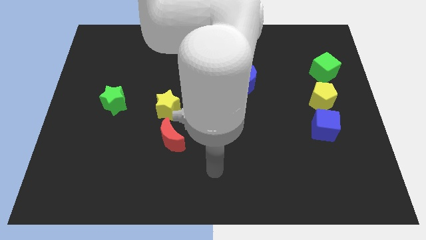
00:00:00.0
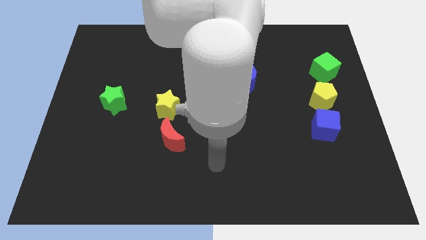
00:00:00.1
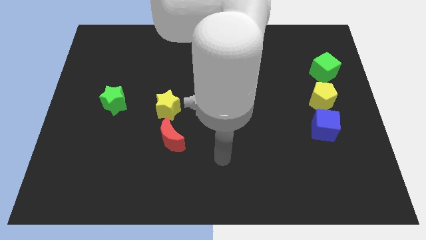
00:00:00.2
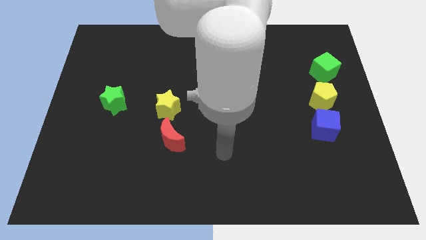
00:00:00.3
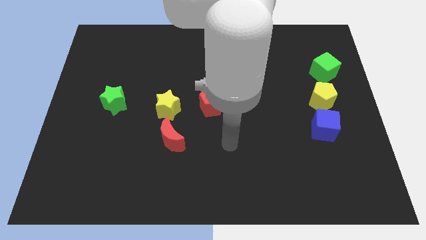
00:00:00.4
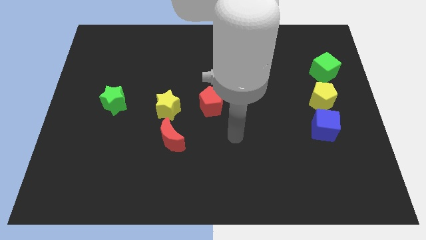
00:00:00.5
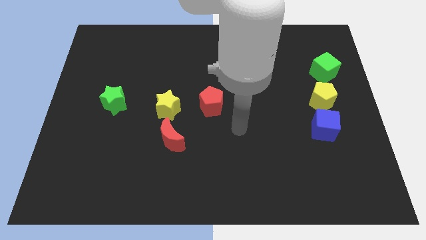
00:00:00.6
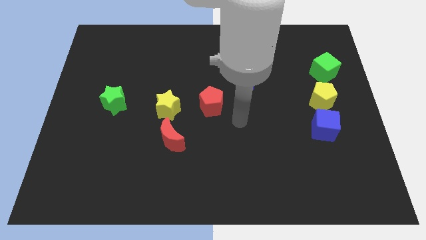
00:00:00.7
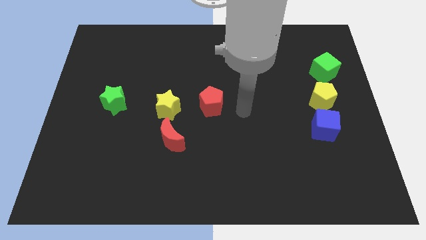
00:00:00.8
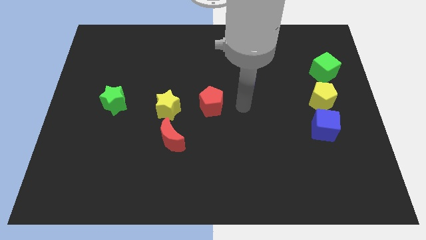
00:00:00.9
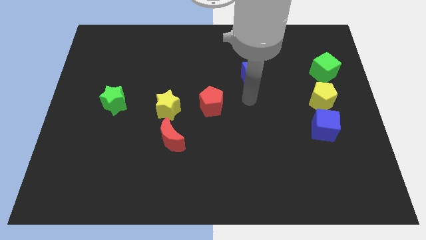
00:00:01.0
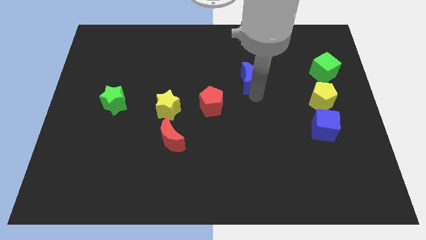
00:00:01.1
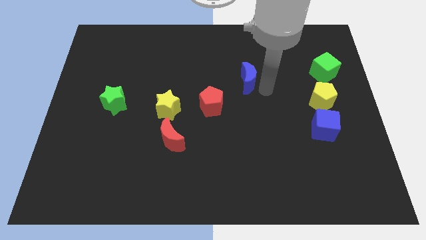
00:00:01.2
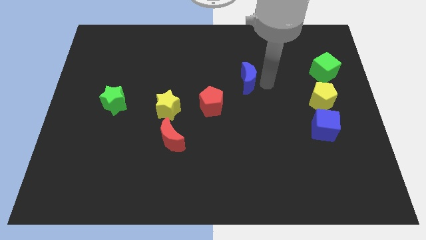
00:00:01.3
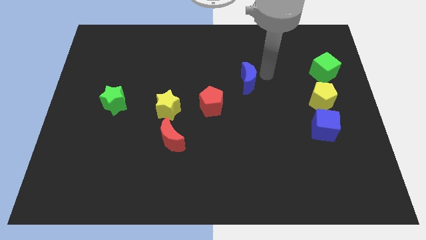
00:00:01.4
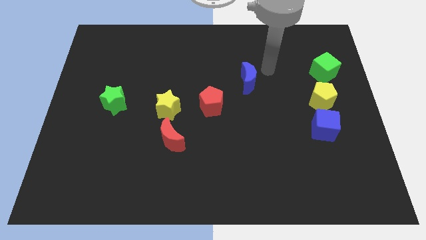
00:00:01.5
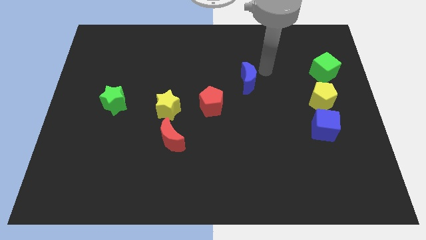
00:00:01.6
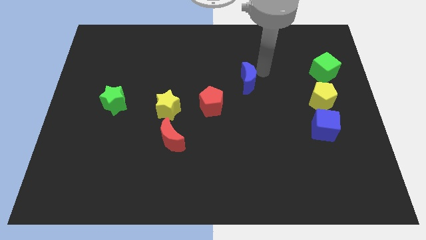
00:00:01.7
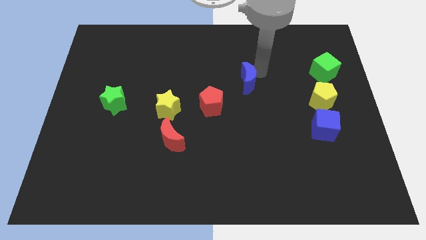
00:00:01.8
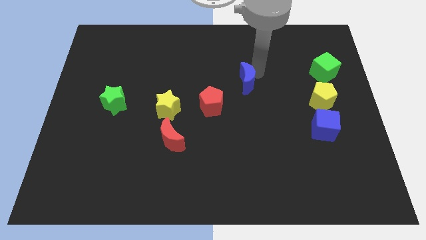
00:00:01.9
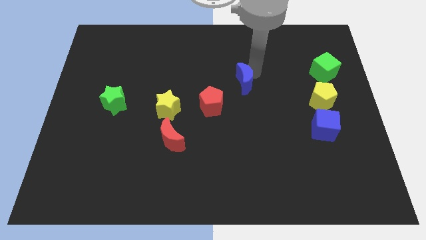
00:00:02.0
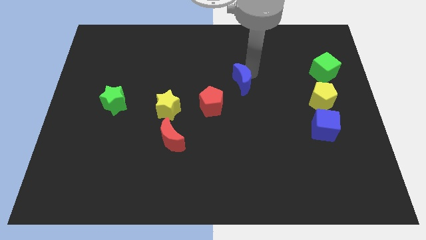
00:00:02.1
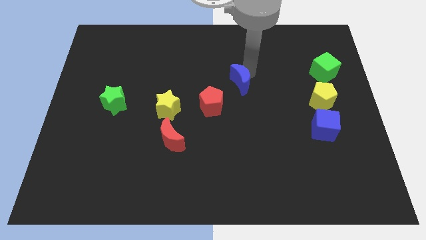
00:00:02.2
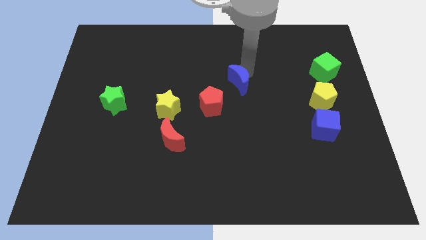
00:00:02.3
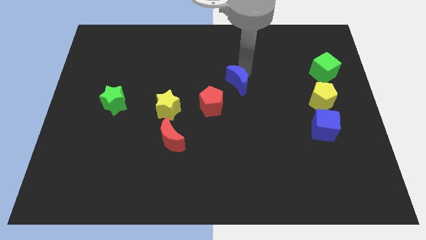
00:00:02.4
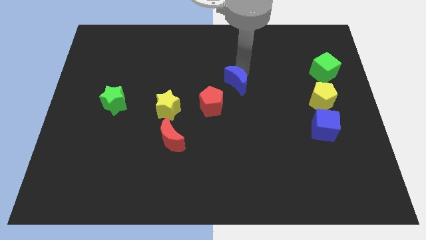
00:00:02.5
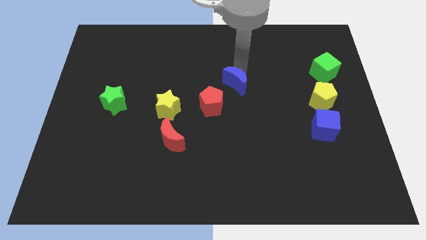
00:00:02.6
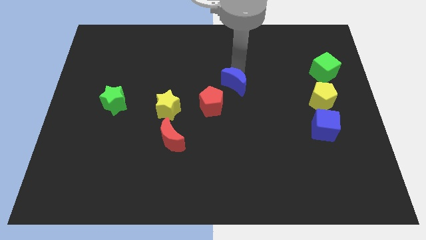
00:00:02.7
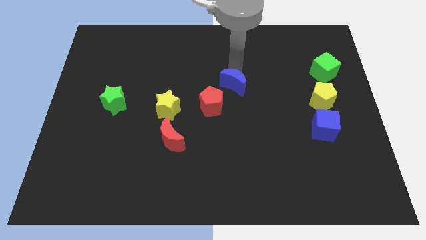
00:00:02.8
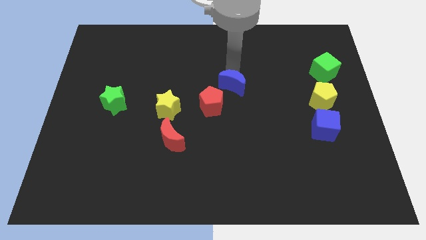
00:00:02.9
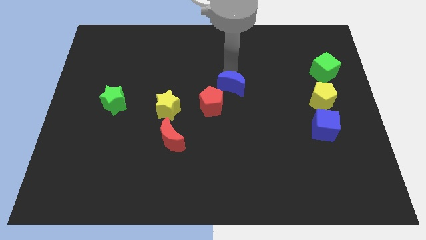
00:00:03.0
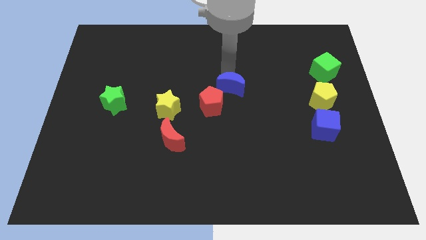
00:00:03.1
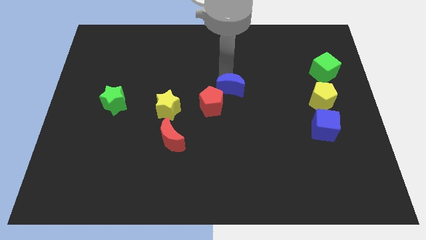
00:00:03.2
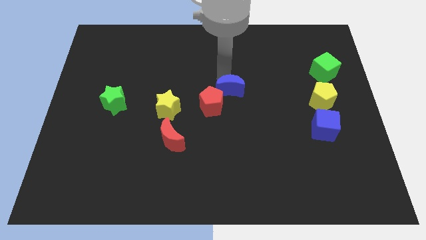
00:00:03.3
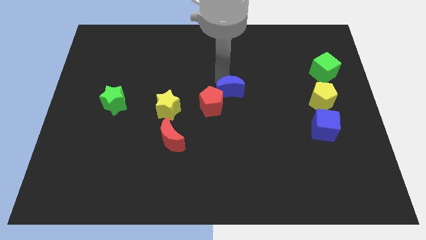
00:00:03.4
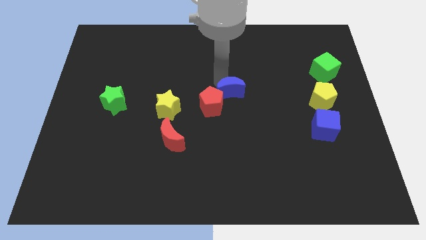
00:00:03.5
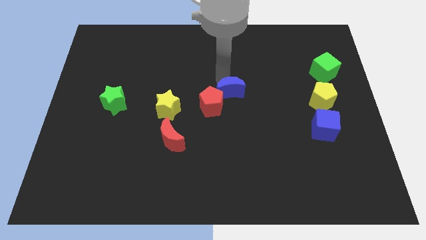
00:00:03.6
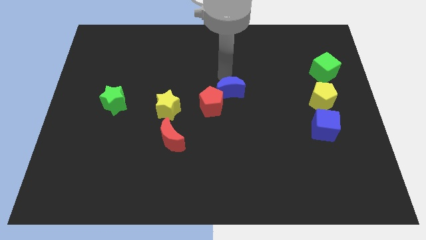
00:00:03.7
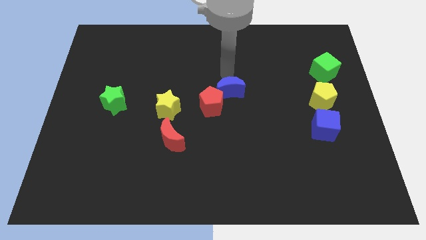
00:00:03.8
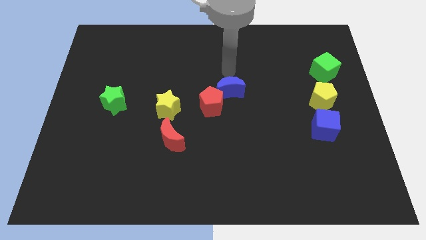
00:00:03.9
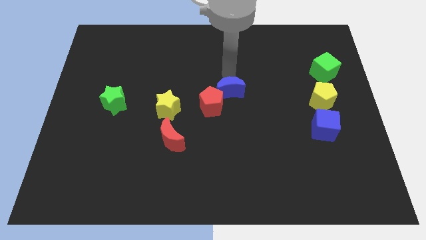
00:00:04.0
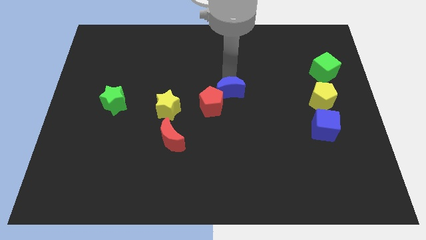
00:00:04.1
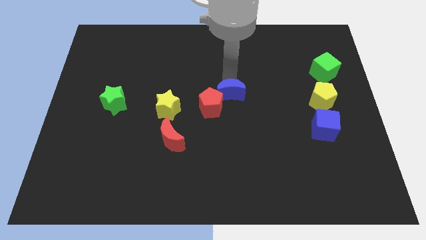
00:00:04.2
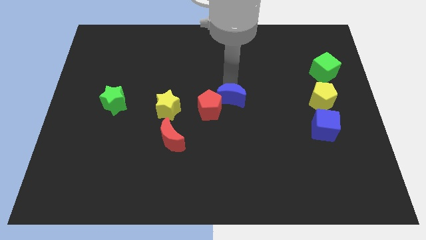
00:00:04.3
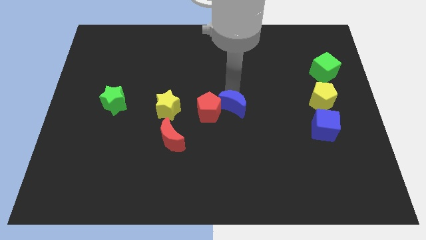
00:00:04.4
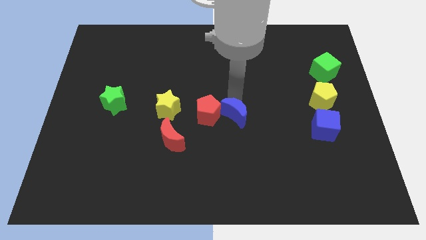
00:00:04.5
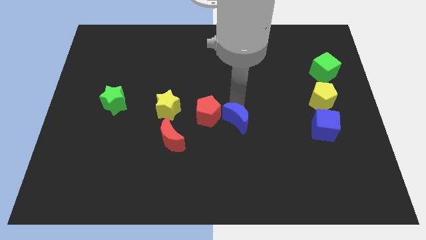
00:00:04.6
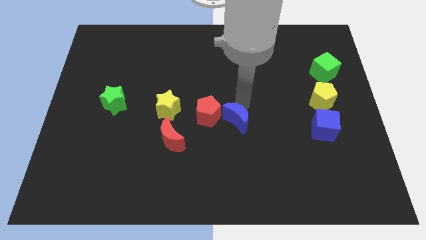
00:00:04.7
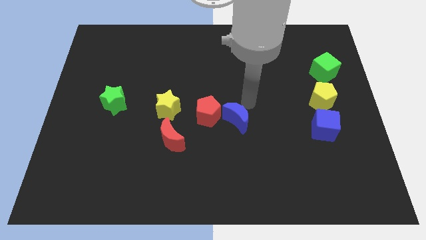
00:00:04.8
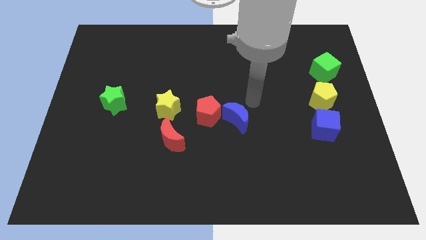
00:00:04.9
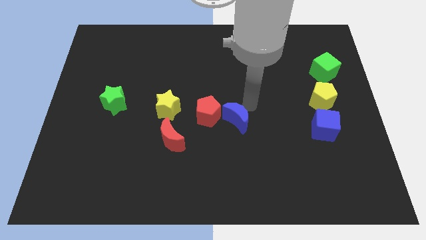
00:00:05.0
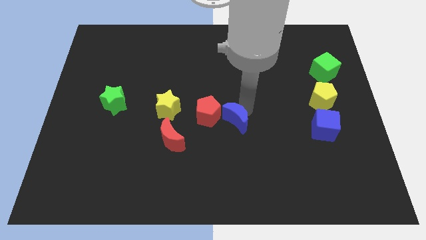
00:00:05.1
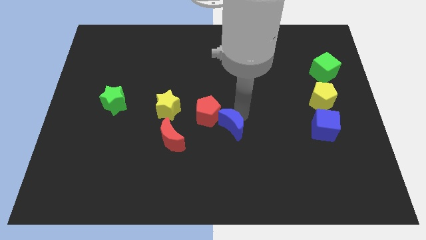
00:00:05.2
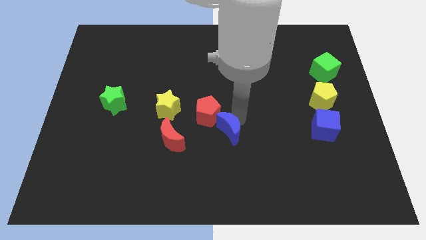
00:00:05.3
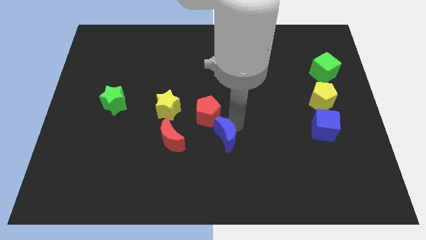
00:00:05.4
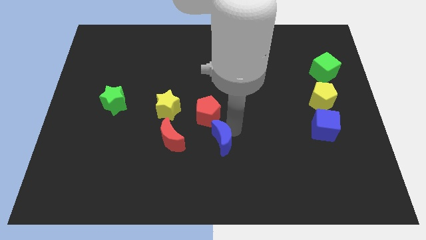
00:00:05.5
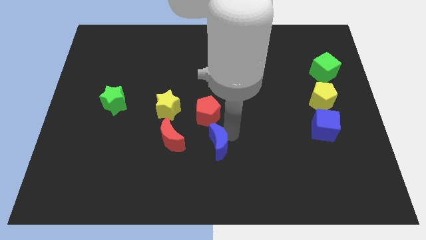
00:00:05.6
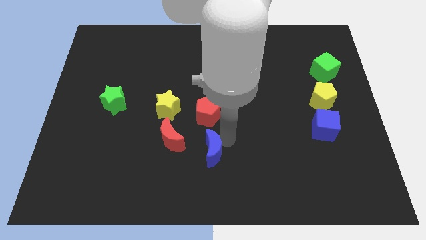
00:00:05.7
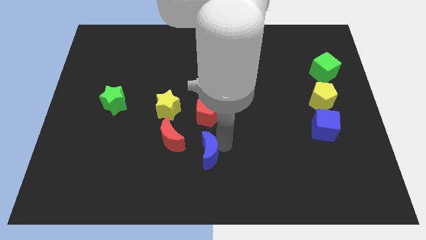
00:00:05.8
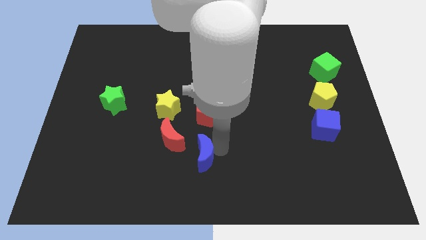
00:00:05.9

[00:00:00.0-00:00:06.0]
slide the blue moon diagonally down and left

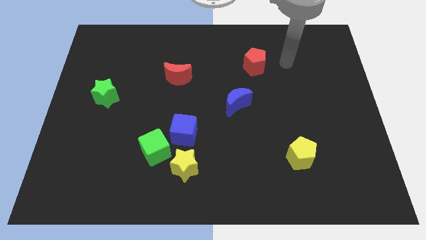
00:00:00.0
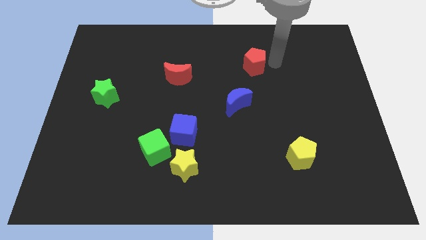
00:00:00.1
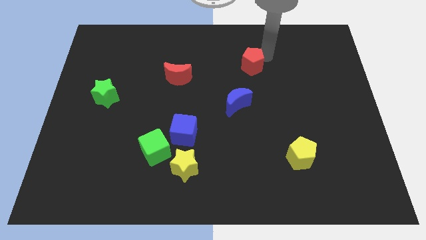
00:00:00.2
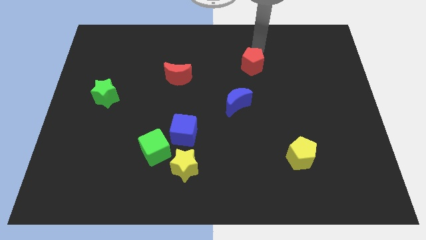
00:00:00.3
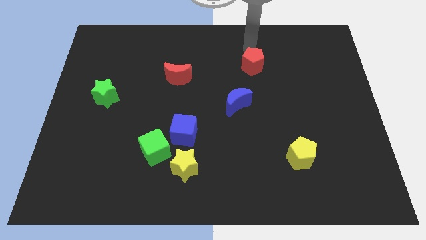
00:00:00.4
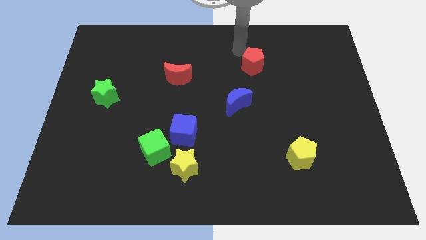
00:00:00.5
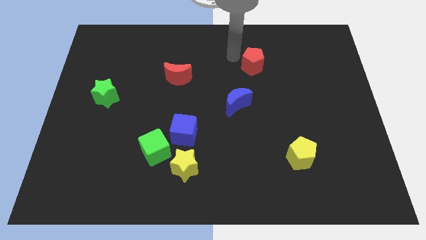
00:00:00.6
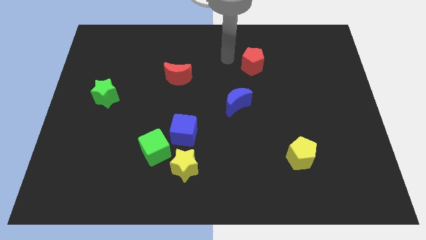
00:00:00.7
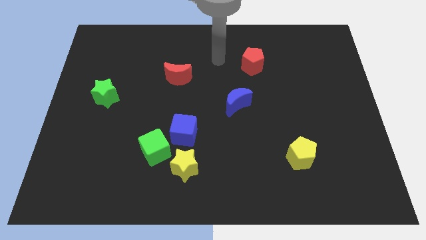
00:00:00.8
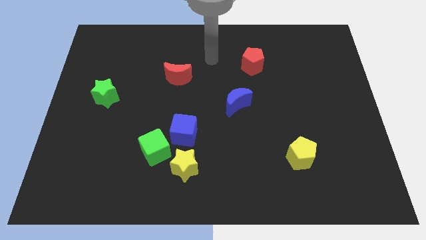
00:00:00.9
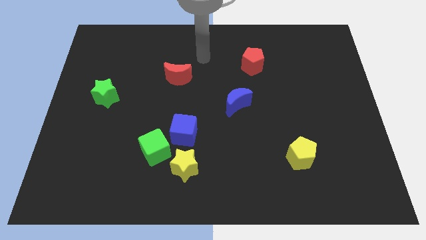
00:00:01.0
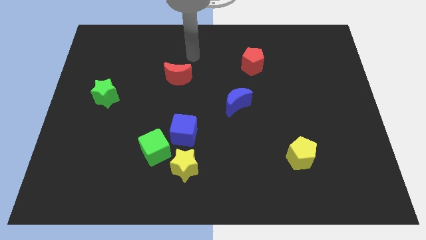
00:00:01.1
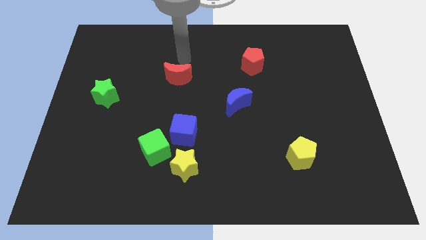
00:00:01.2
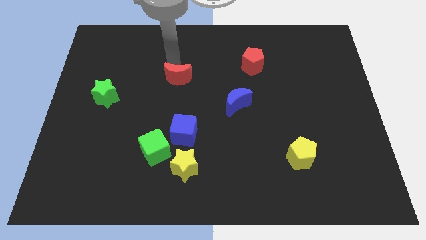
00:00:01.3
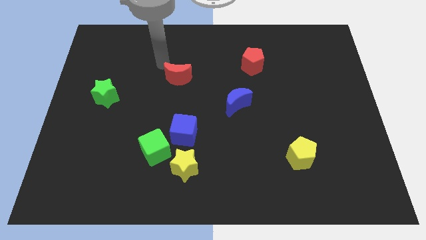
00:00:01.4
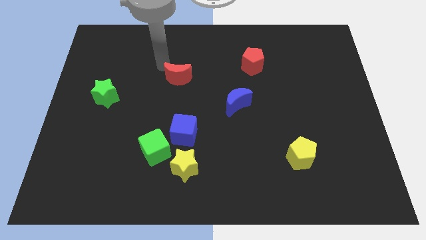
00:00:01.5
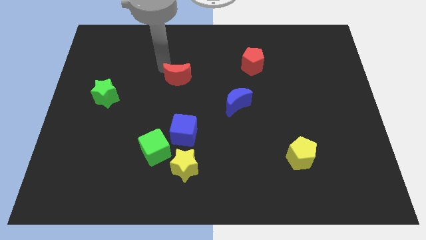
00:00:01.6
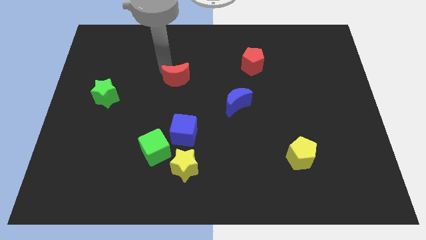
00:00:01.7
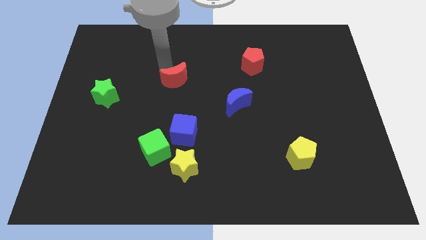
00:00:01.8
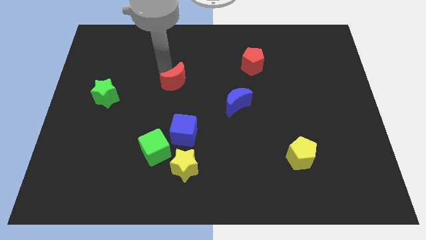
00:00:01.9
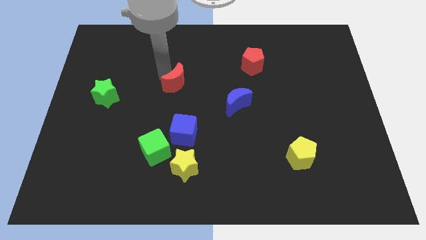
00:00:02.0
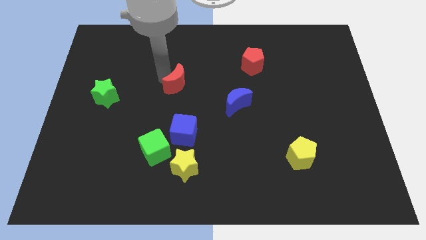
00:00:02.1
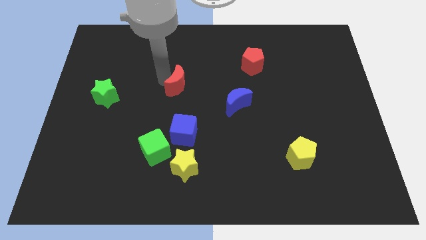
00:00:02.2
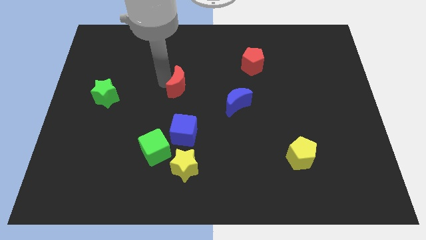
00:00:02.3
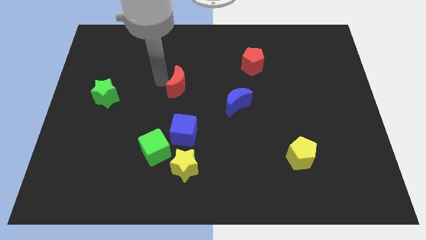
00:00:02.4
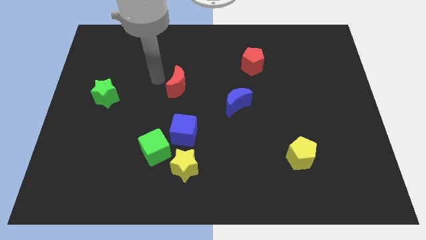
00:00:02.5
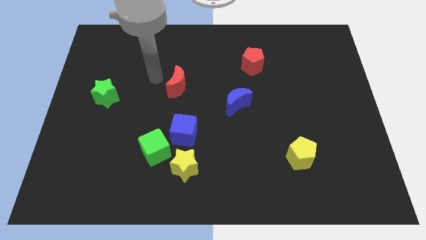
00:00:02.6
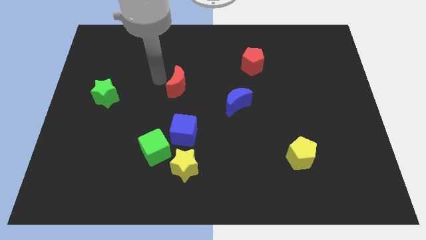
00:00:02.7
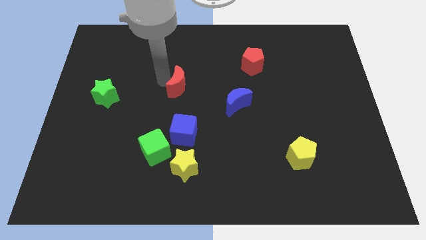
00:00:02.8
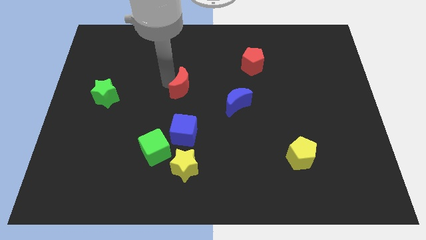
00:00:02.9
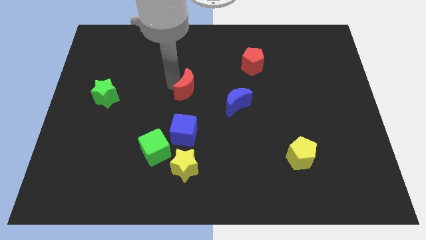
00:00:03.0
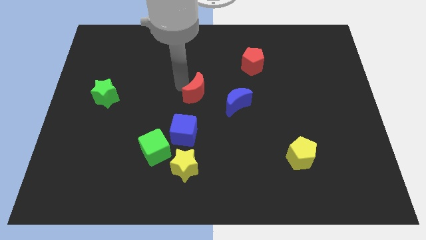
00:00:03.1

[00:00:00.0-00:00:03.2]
move the red moon somewhat diagonally downwards and right
